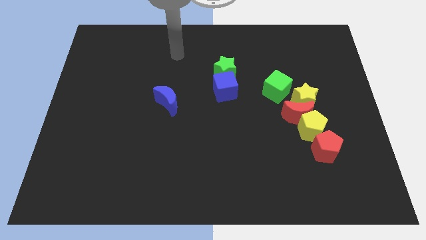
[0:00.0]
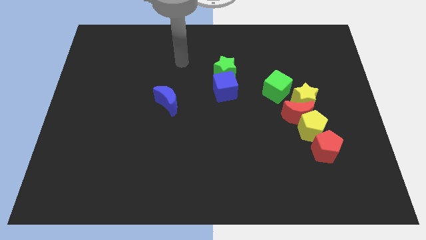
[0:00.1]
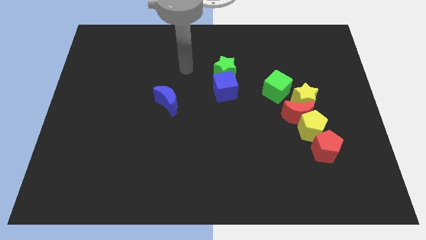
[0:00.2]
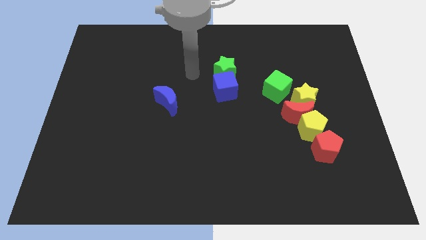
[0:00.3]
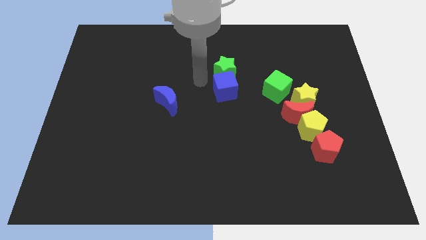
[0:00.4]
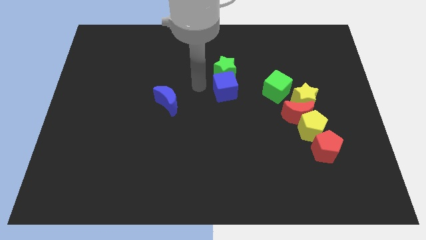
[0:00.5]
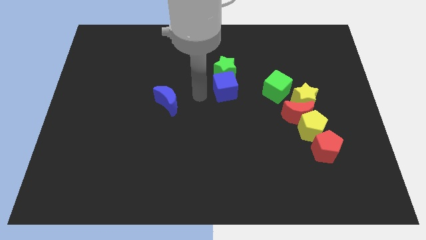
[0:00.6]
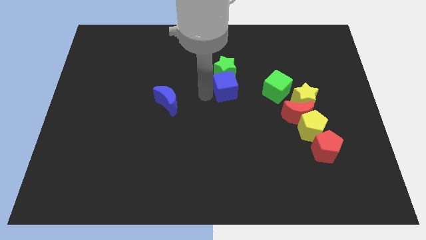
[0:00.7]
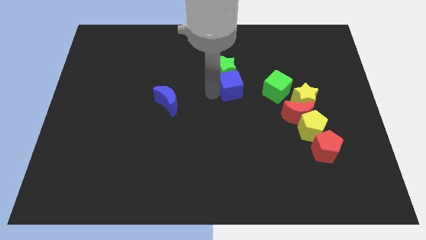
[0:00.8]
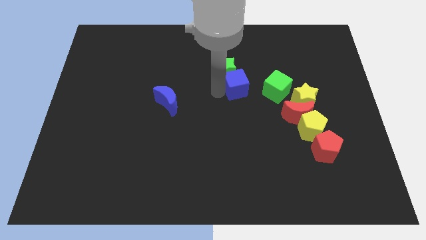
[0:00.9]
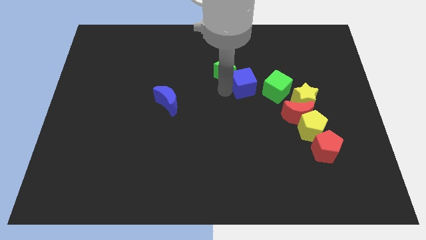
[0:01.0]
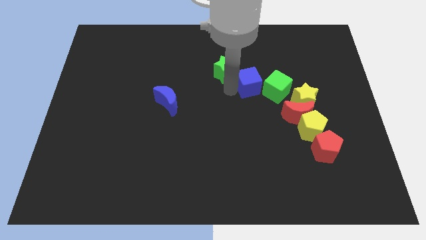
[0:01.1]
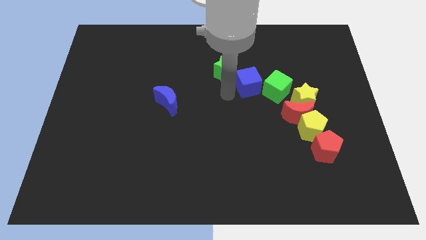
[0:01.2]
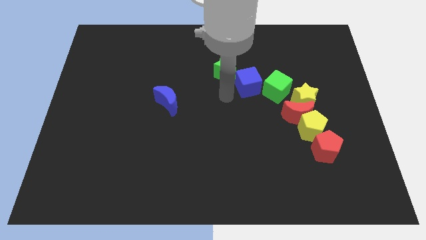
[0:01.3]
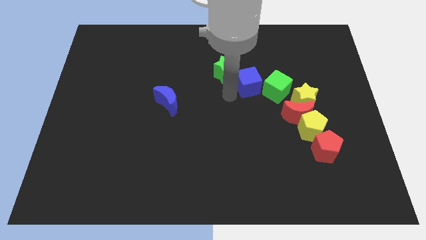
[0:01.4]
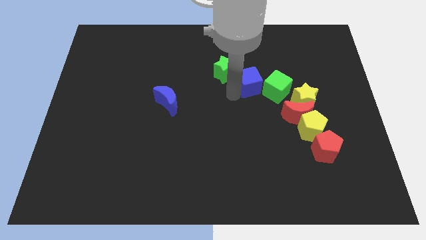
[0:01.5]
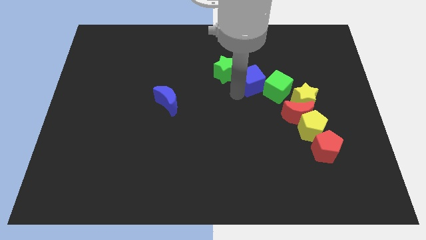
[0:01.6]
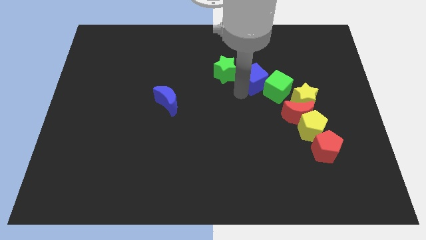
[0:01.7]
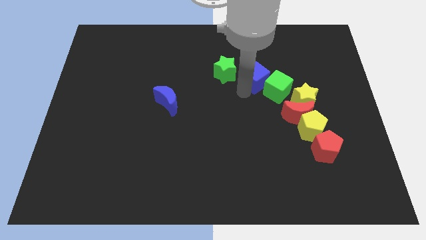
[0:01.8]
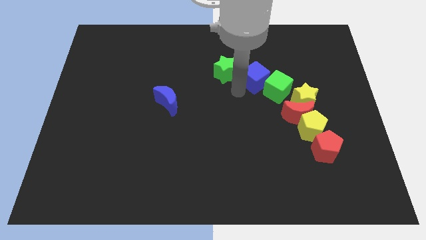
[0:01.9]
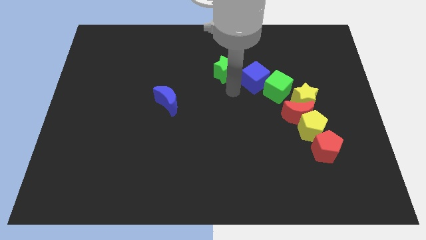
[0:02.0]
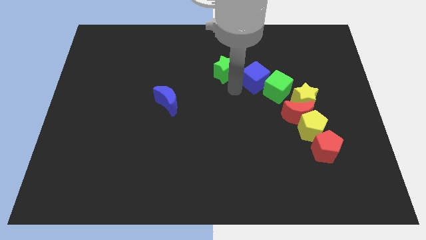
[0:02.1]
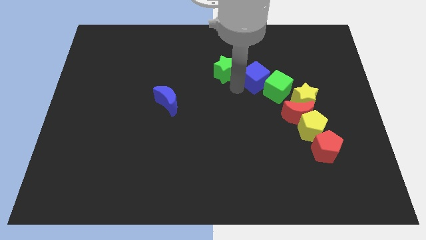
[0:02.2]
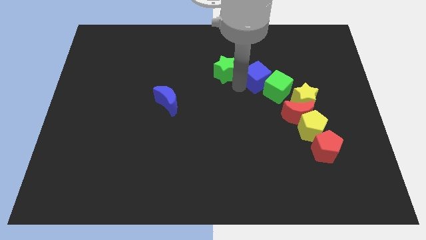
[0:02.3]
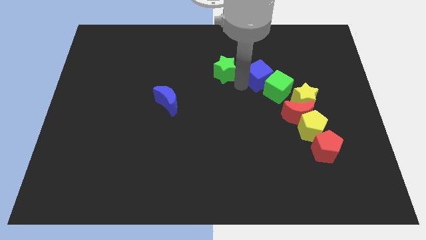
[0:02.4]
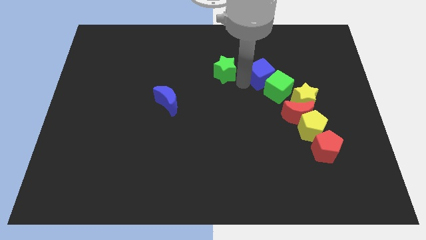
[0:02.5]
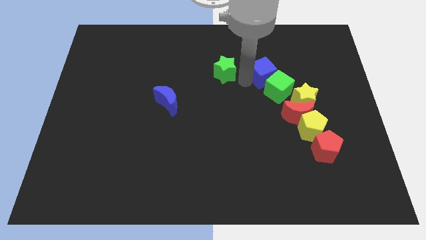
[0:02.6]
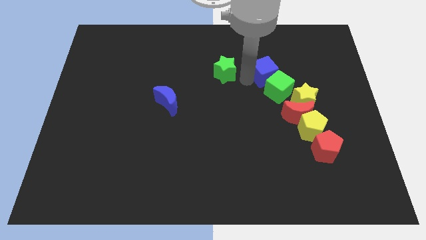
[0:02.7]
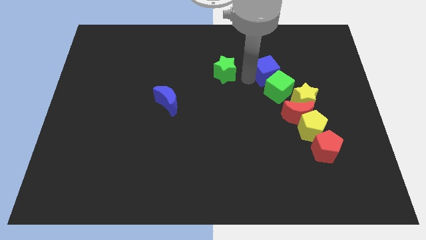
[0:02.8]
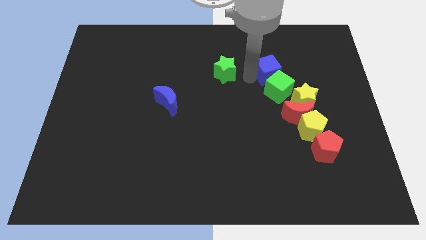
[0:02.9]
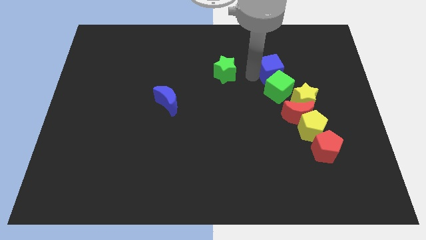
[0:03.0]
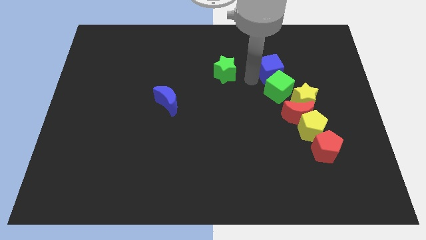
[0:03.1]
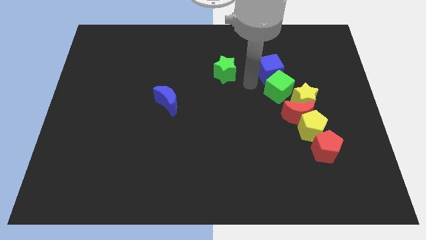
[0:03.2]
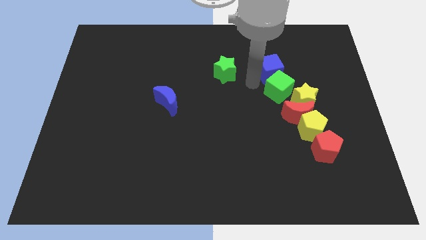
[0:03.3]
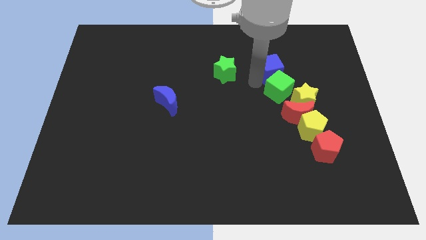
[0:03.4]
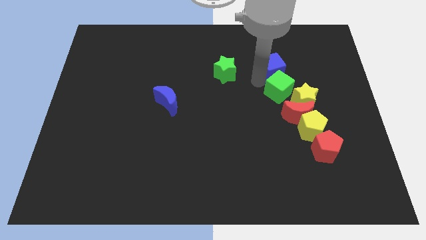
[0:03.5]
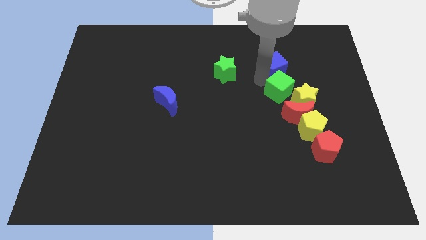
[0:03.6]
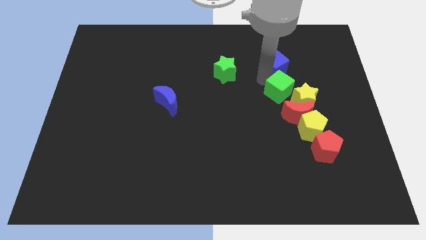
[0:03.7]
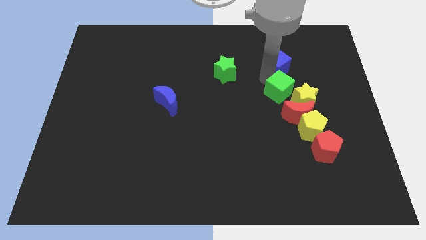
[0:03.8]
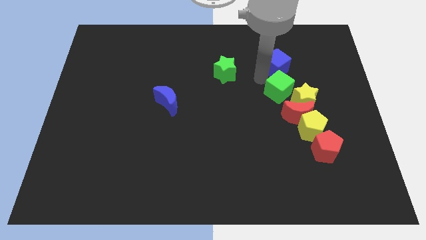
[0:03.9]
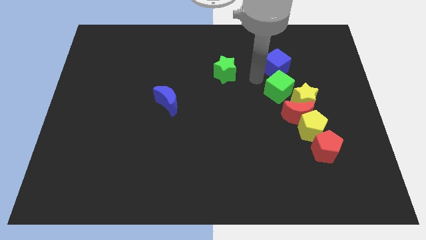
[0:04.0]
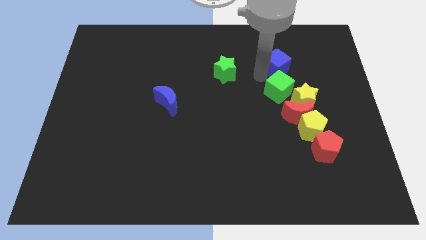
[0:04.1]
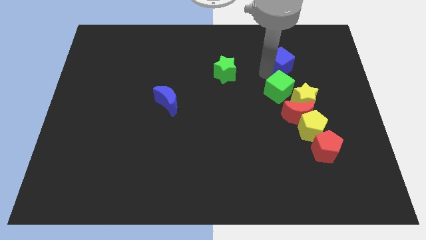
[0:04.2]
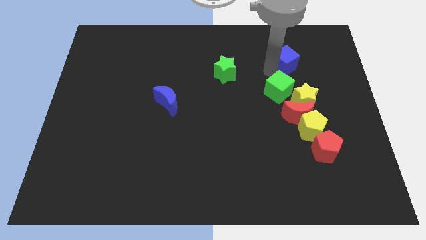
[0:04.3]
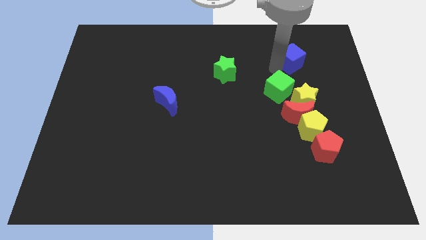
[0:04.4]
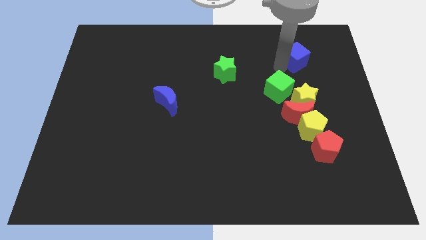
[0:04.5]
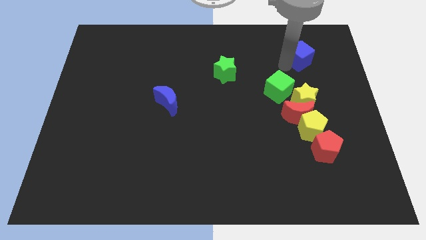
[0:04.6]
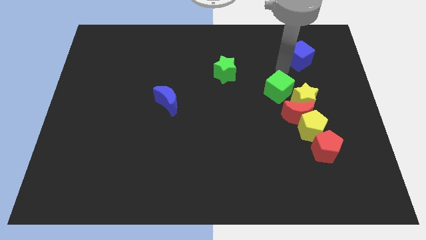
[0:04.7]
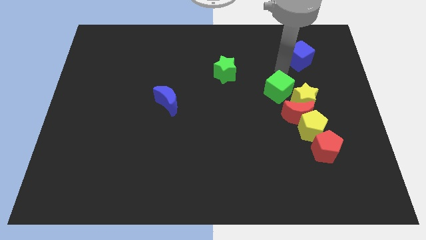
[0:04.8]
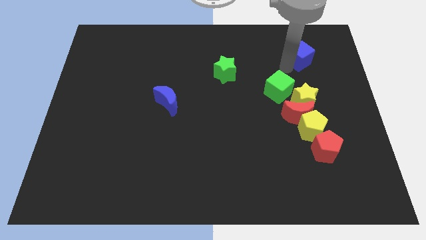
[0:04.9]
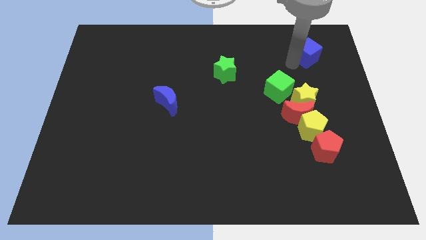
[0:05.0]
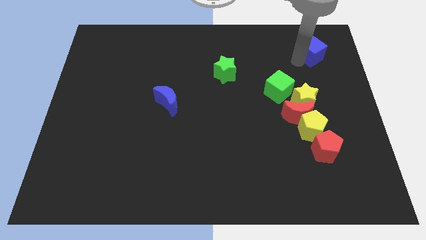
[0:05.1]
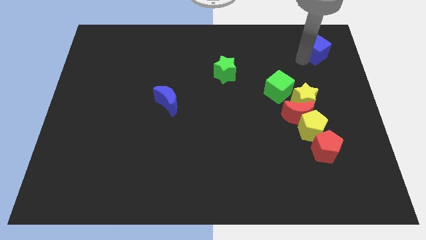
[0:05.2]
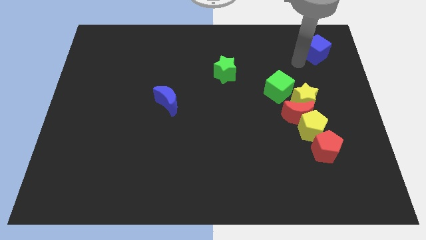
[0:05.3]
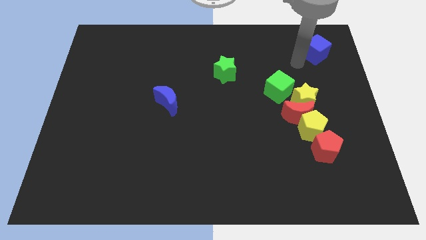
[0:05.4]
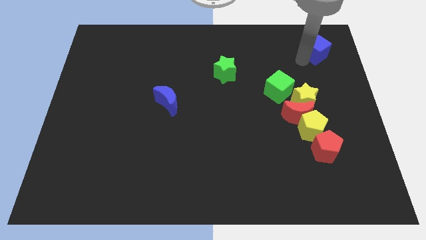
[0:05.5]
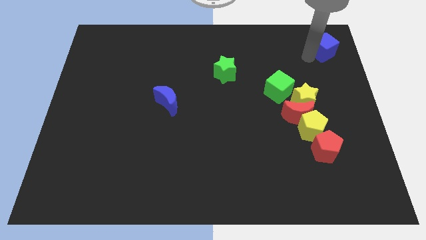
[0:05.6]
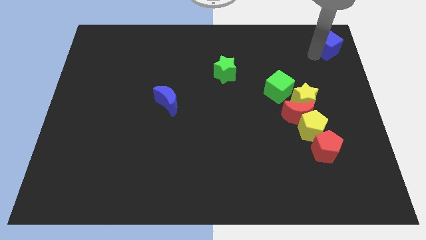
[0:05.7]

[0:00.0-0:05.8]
slide the blue cube to the top right of the board
